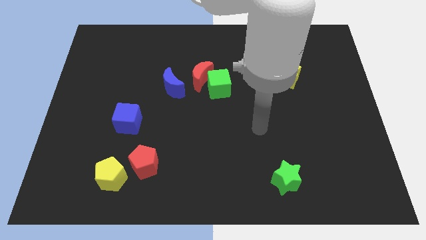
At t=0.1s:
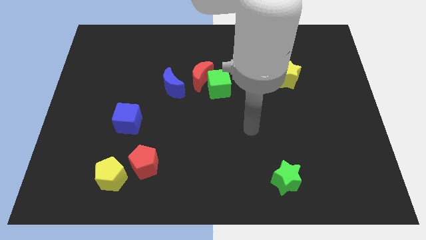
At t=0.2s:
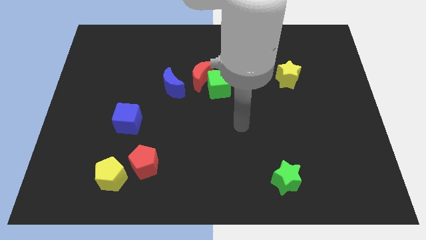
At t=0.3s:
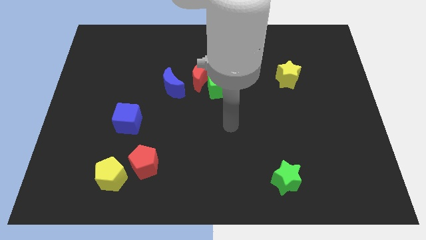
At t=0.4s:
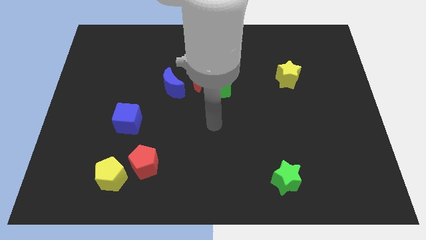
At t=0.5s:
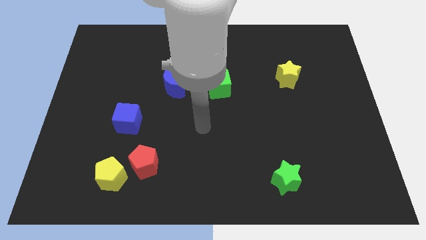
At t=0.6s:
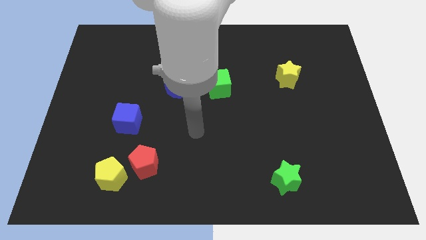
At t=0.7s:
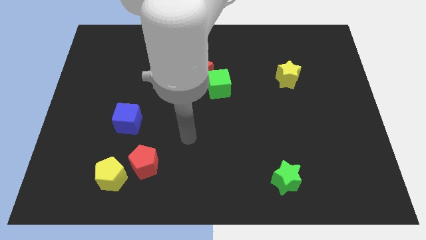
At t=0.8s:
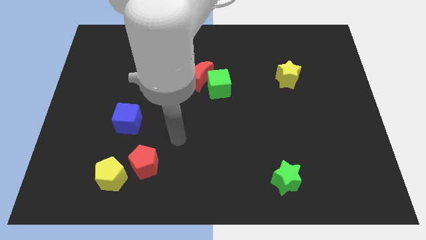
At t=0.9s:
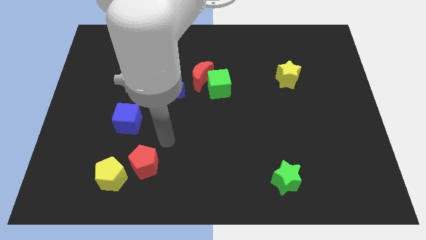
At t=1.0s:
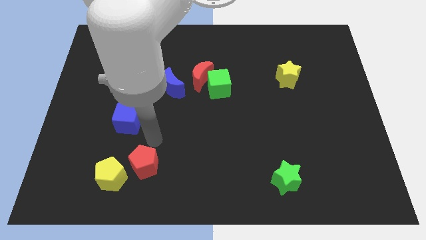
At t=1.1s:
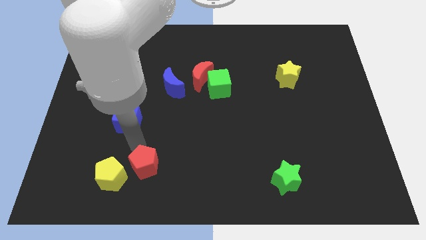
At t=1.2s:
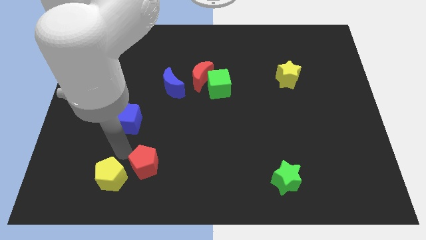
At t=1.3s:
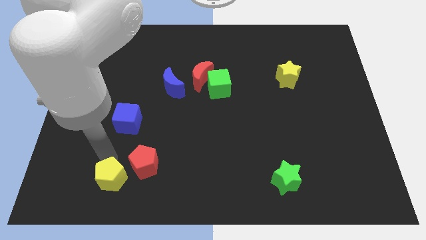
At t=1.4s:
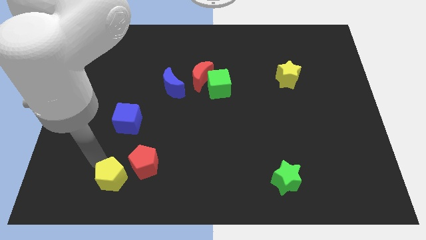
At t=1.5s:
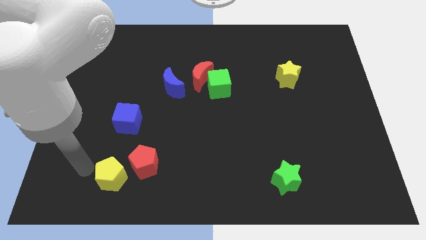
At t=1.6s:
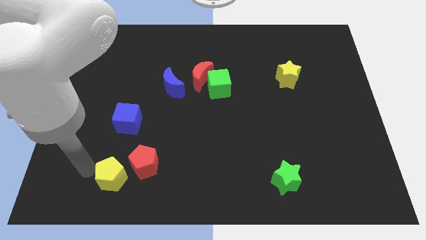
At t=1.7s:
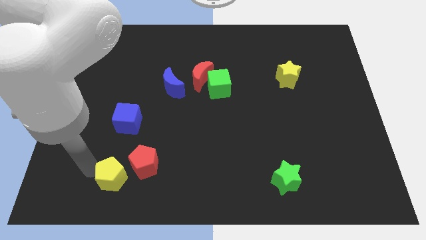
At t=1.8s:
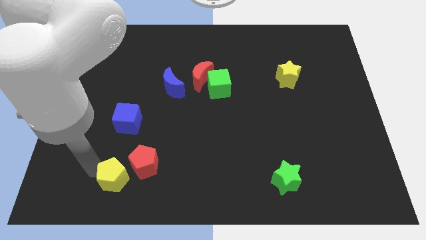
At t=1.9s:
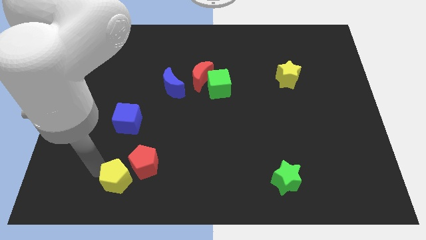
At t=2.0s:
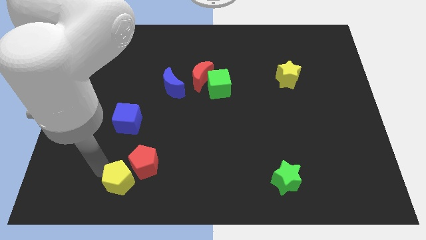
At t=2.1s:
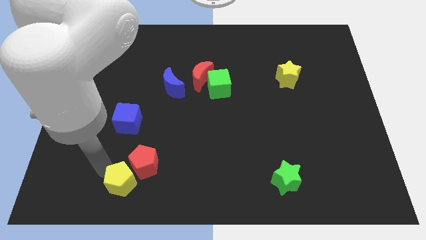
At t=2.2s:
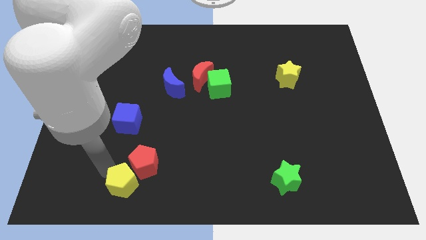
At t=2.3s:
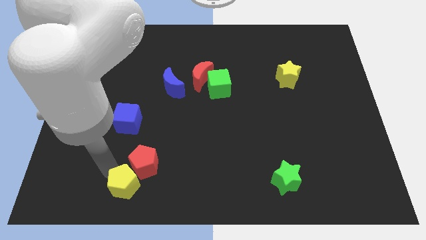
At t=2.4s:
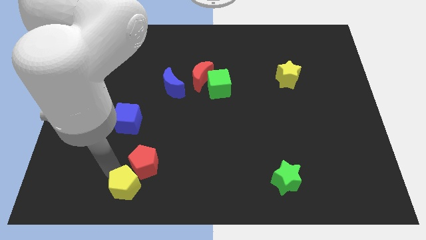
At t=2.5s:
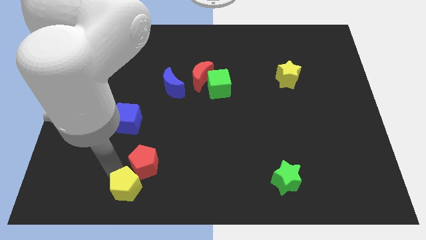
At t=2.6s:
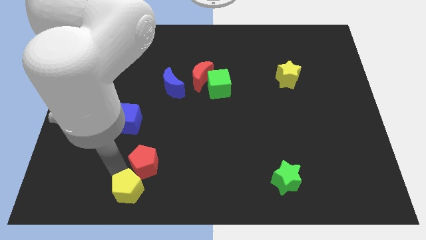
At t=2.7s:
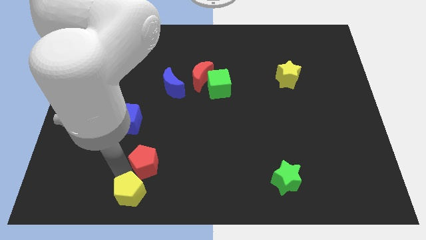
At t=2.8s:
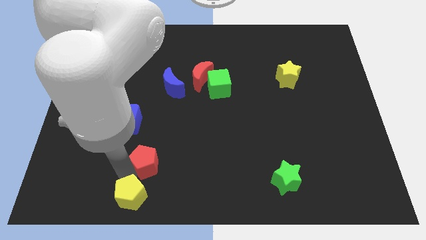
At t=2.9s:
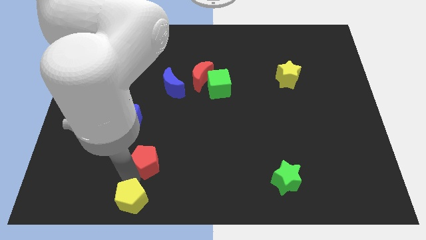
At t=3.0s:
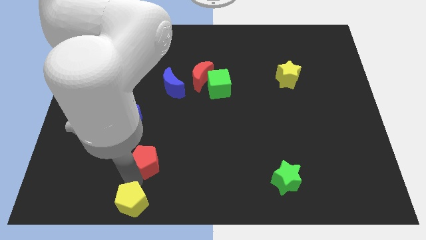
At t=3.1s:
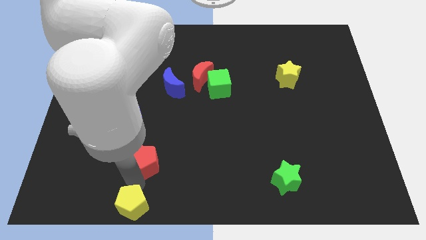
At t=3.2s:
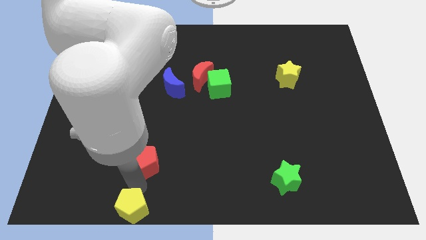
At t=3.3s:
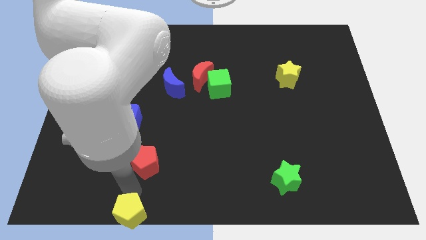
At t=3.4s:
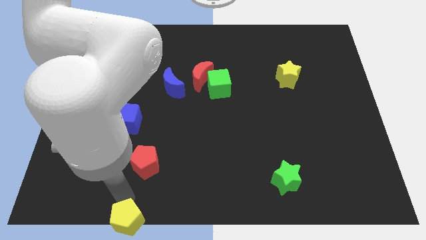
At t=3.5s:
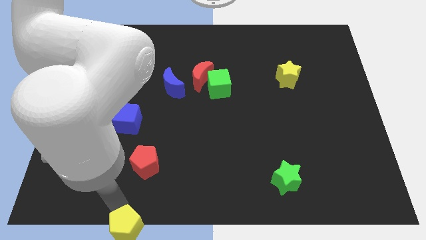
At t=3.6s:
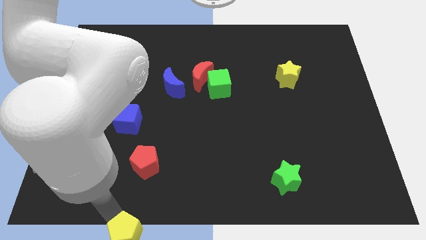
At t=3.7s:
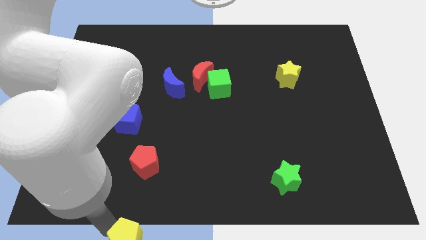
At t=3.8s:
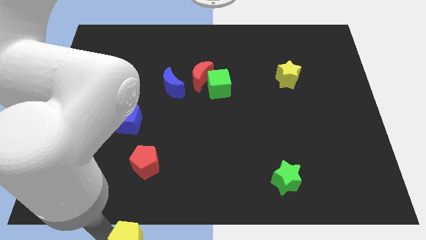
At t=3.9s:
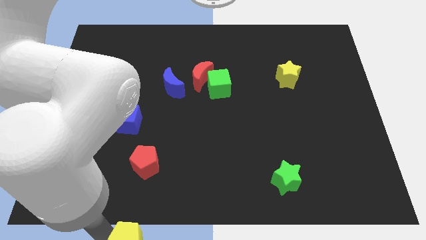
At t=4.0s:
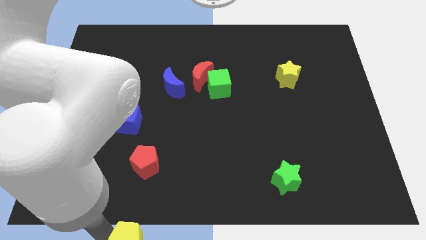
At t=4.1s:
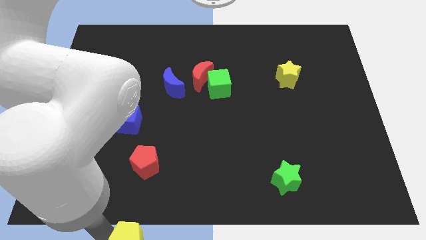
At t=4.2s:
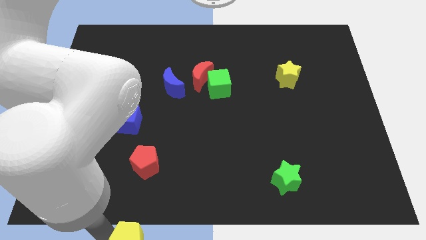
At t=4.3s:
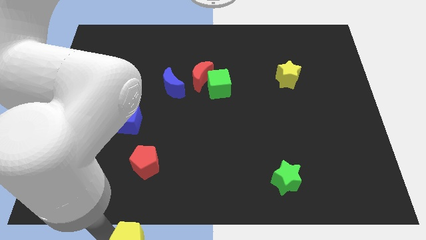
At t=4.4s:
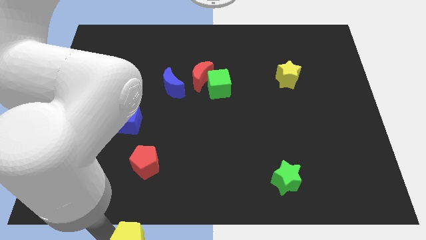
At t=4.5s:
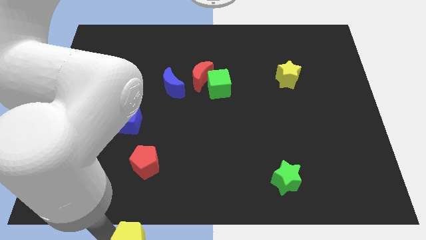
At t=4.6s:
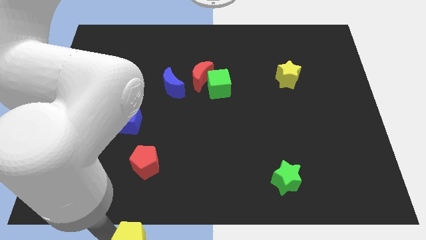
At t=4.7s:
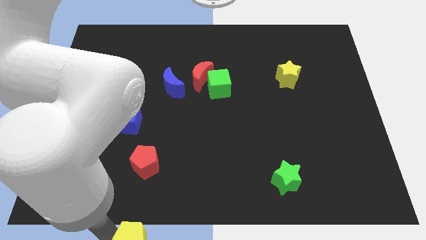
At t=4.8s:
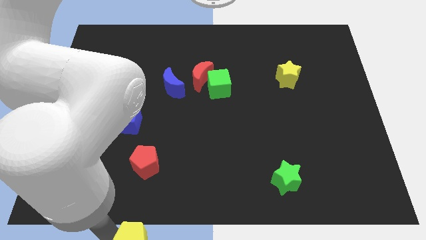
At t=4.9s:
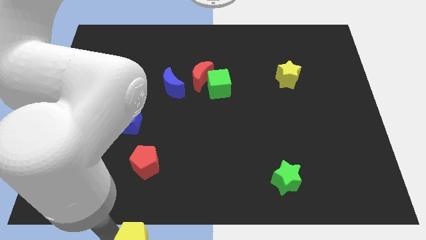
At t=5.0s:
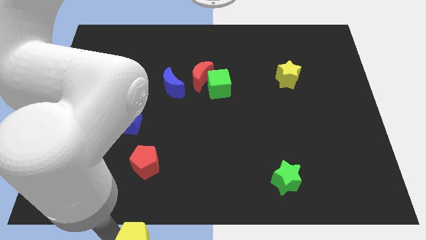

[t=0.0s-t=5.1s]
put the yellow pentagon to the bottom side

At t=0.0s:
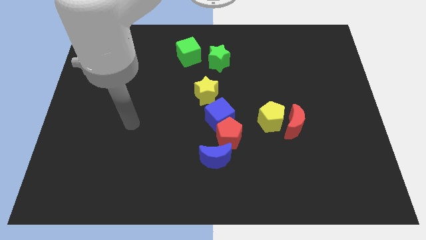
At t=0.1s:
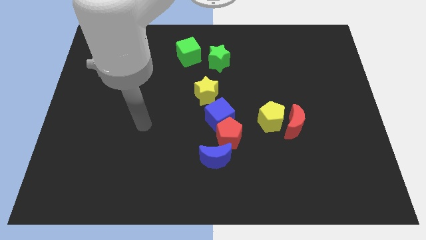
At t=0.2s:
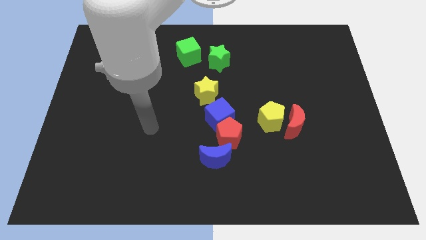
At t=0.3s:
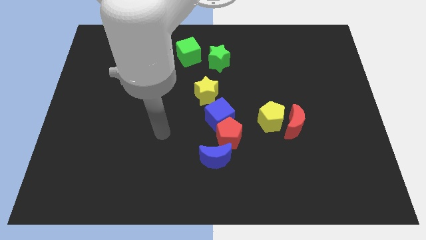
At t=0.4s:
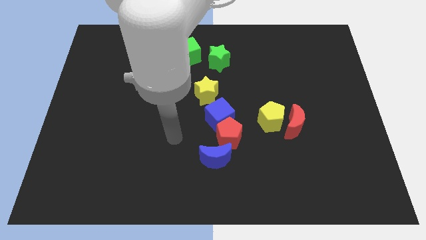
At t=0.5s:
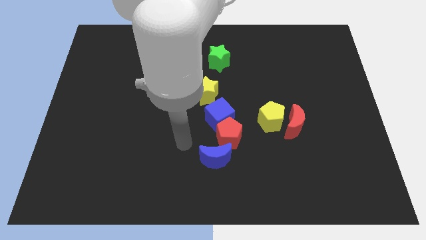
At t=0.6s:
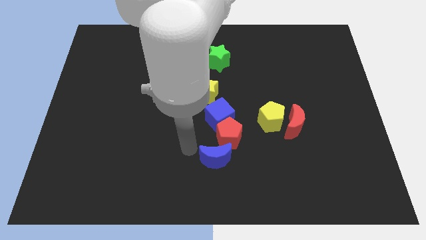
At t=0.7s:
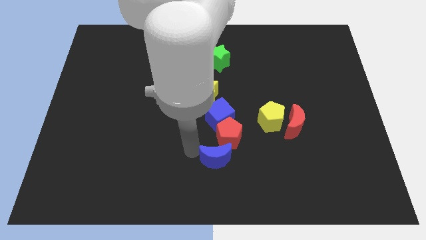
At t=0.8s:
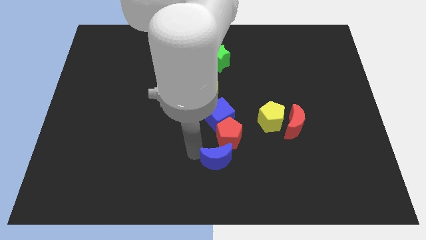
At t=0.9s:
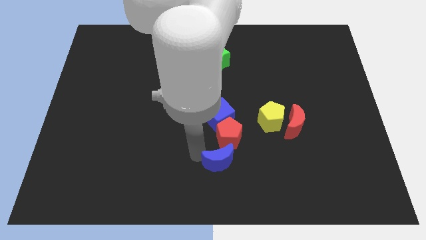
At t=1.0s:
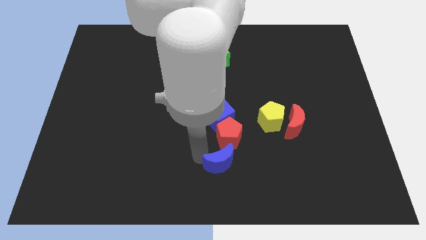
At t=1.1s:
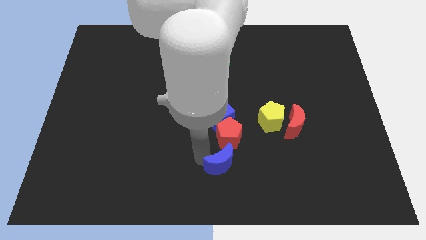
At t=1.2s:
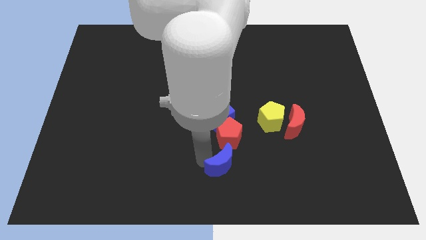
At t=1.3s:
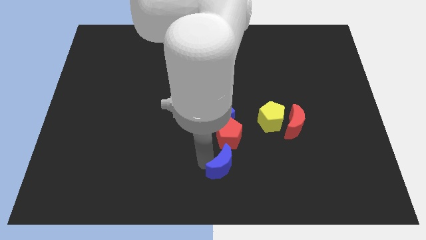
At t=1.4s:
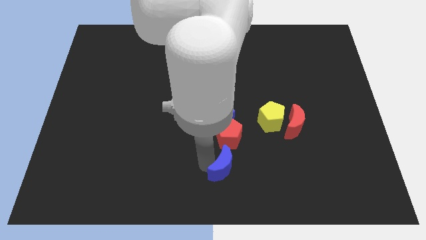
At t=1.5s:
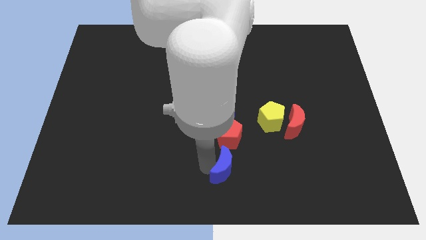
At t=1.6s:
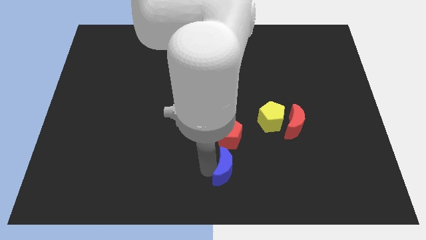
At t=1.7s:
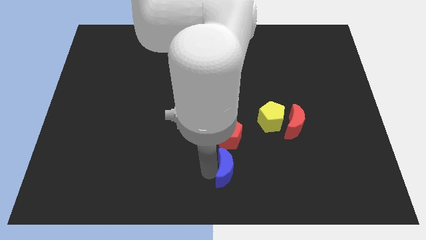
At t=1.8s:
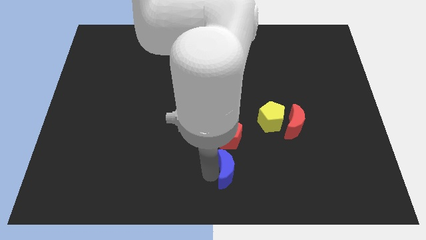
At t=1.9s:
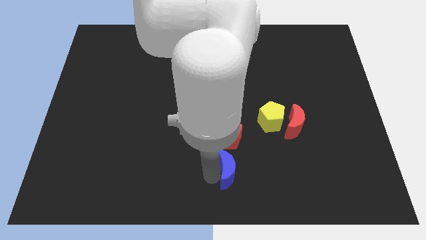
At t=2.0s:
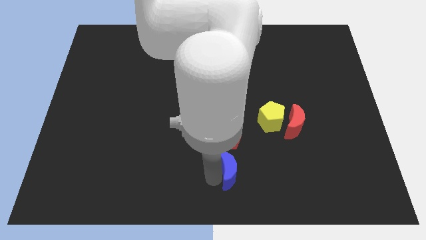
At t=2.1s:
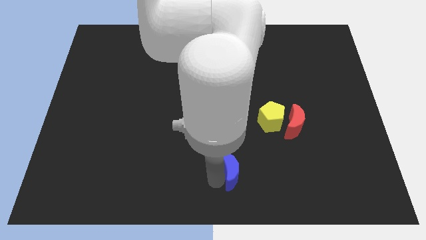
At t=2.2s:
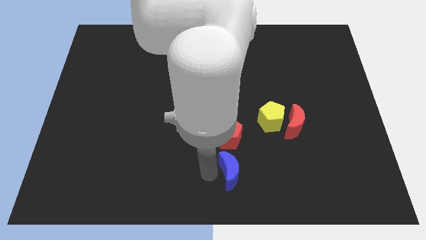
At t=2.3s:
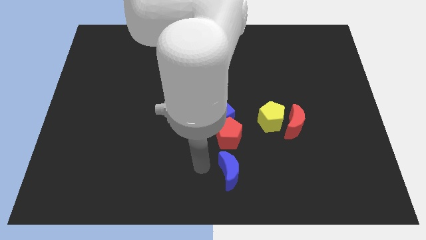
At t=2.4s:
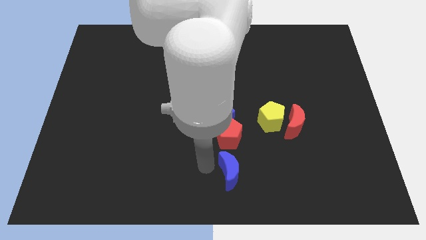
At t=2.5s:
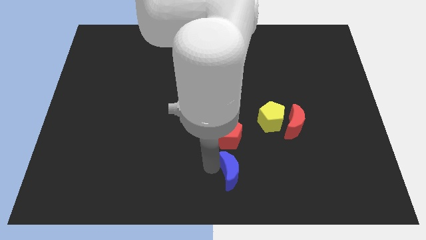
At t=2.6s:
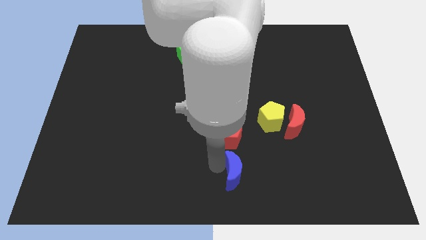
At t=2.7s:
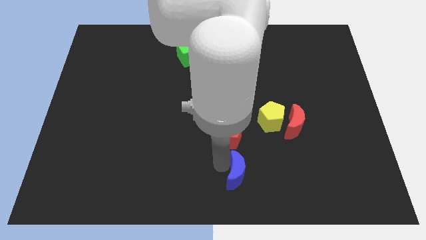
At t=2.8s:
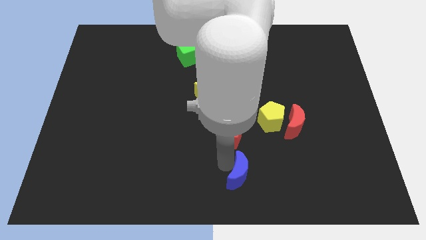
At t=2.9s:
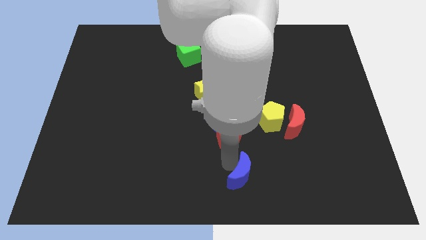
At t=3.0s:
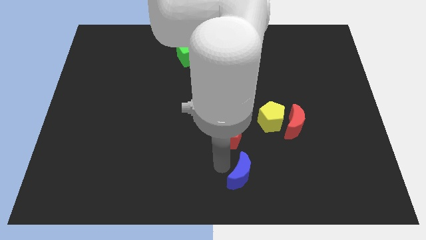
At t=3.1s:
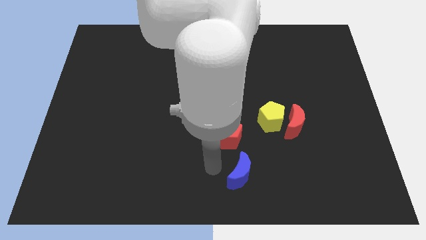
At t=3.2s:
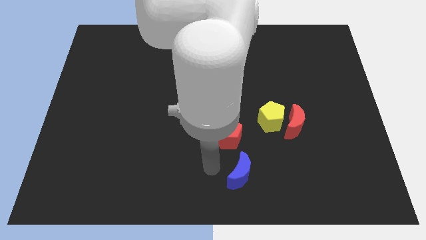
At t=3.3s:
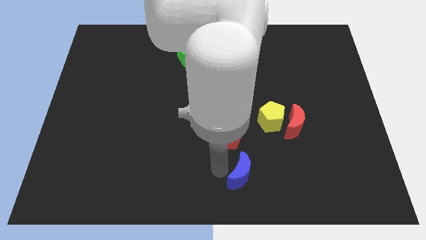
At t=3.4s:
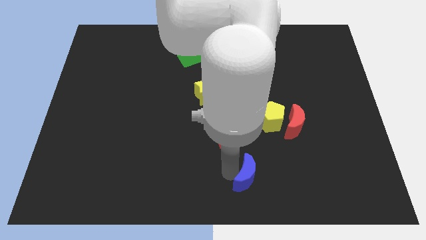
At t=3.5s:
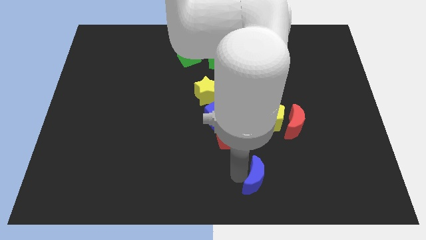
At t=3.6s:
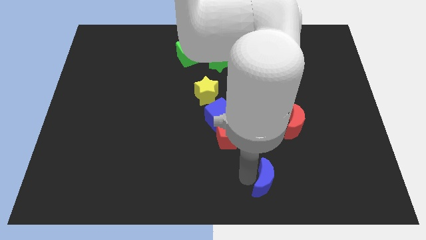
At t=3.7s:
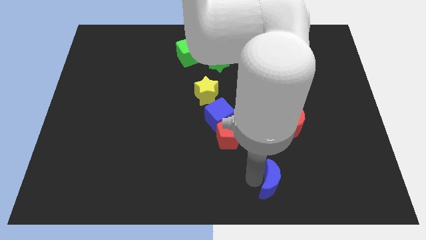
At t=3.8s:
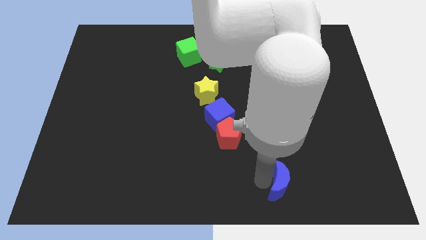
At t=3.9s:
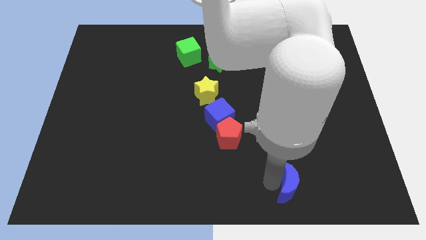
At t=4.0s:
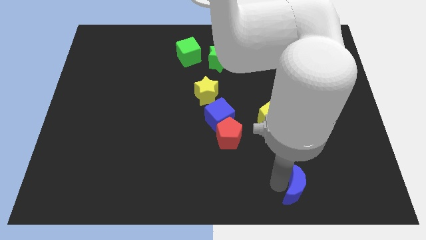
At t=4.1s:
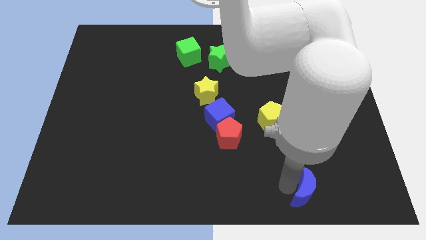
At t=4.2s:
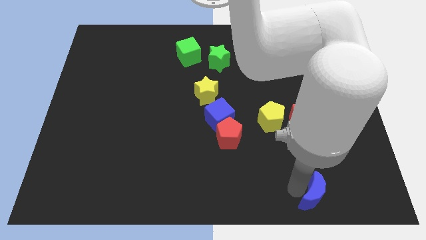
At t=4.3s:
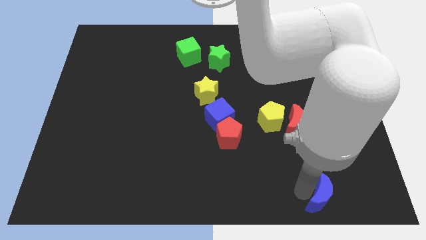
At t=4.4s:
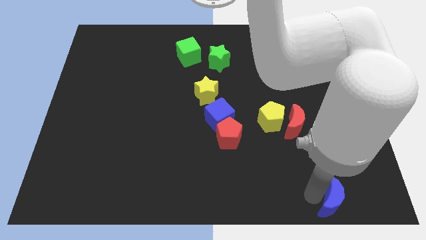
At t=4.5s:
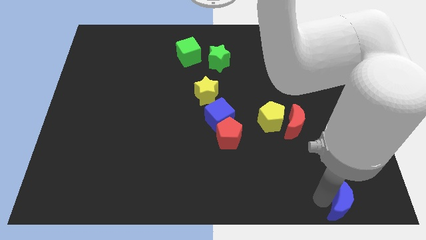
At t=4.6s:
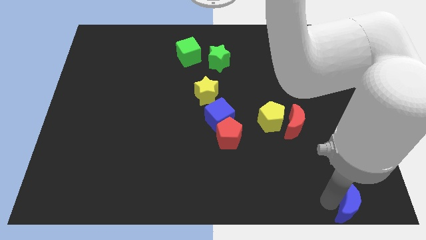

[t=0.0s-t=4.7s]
put the blue moon to the lower right corner
